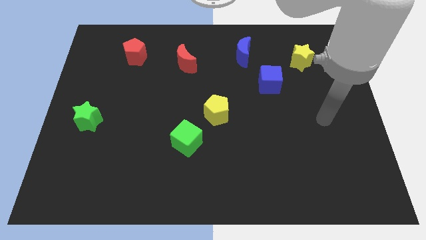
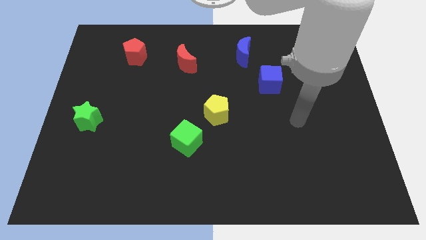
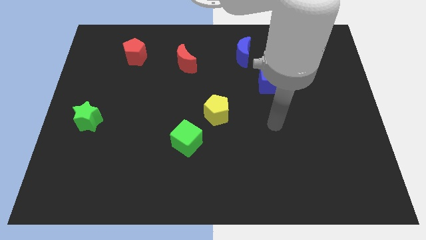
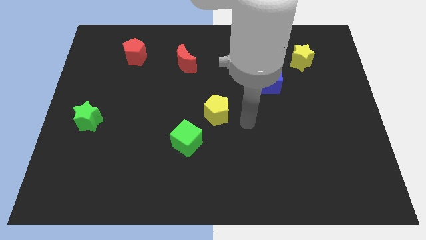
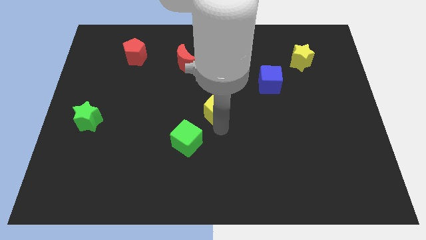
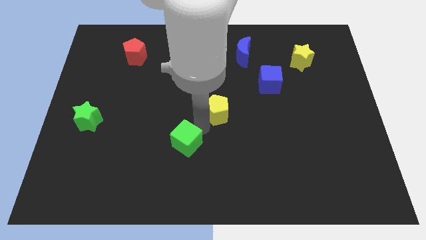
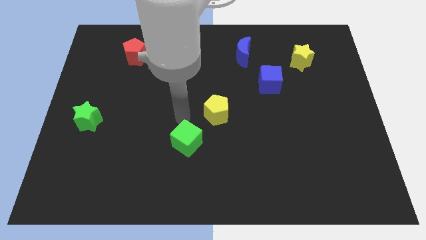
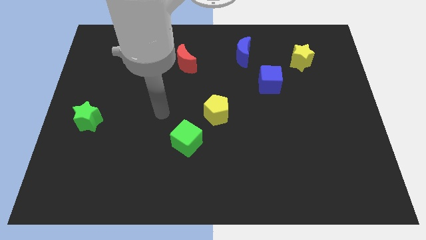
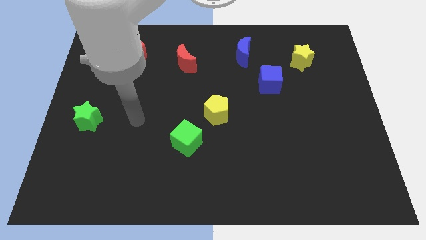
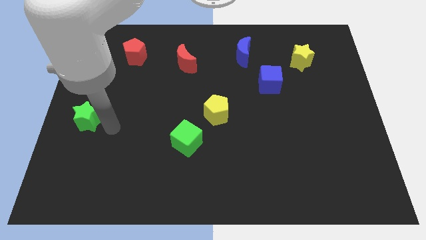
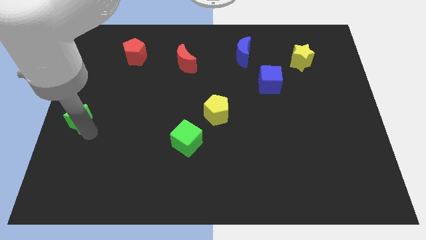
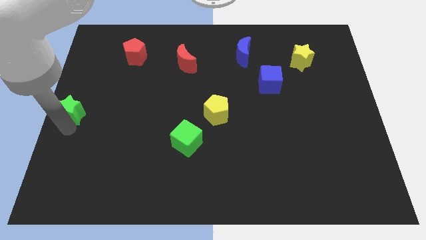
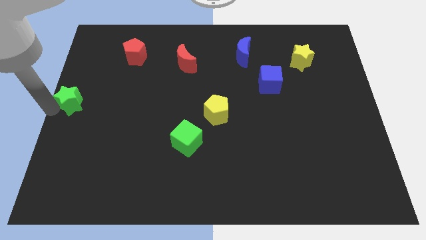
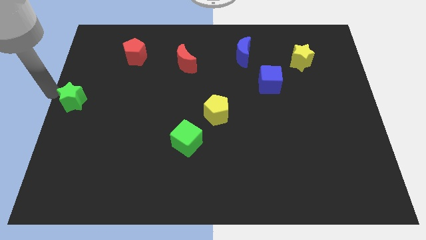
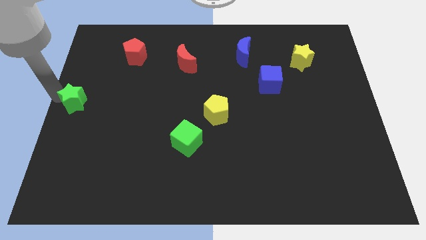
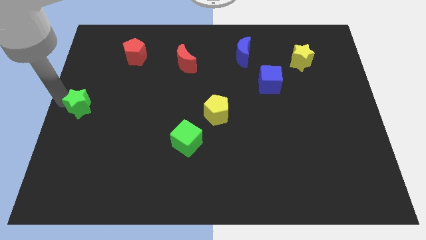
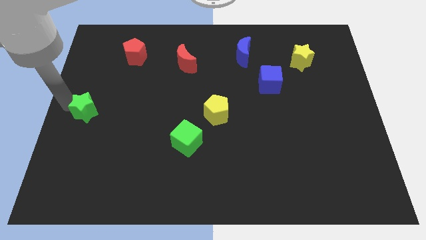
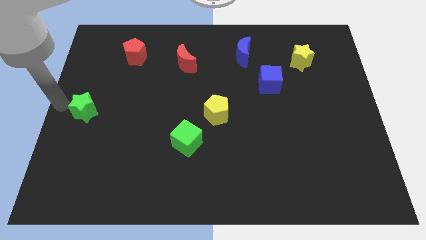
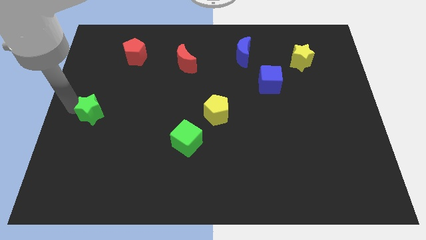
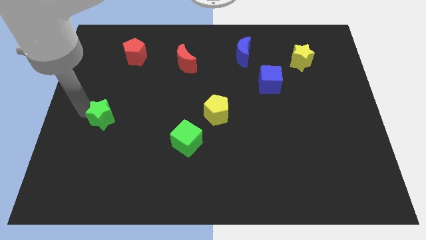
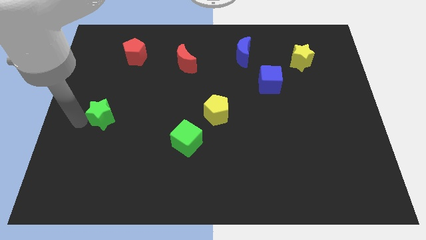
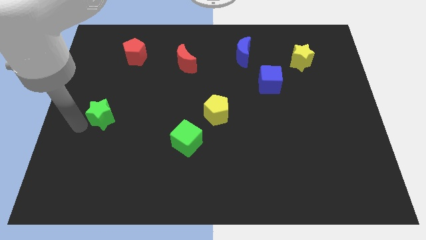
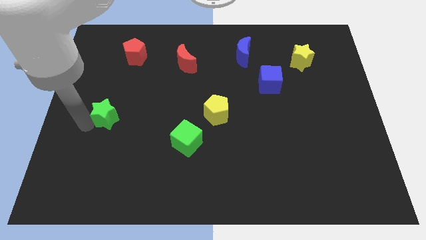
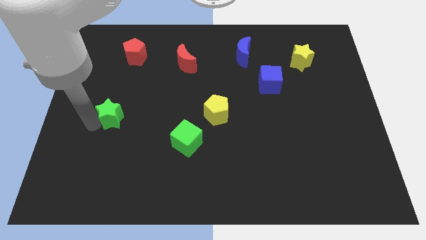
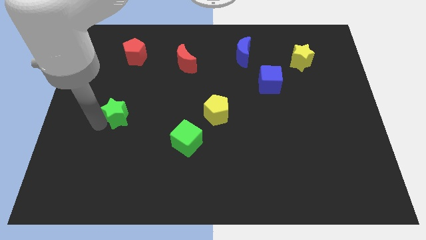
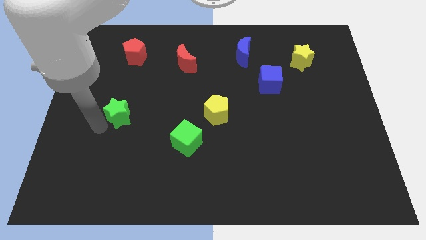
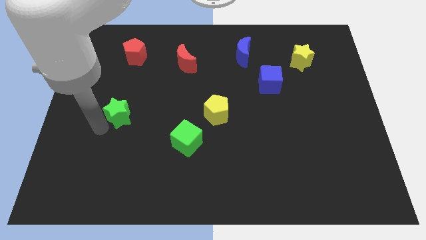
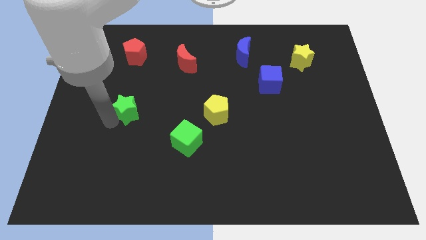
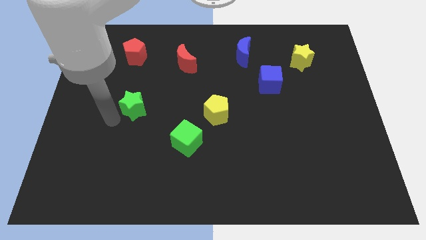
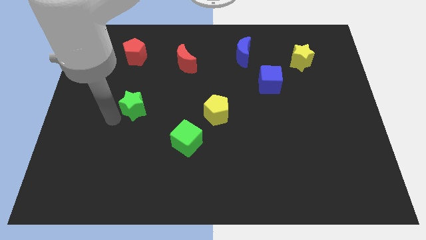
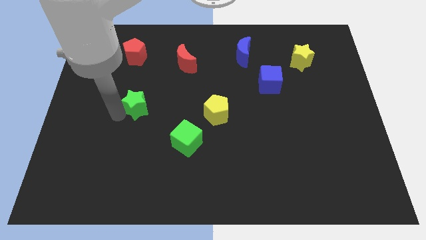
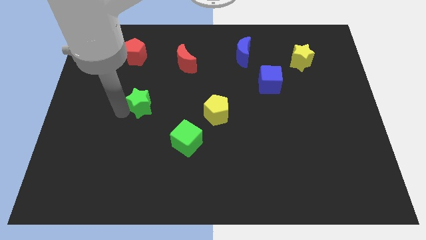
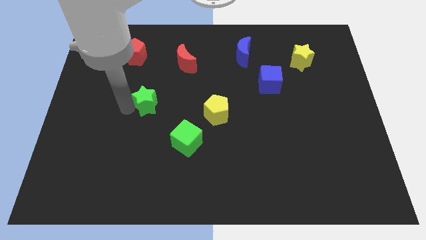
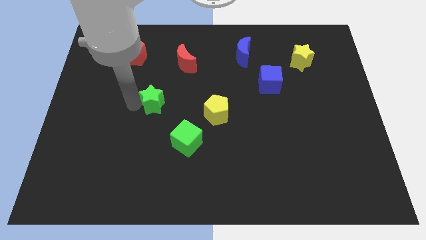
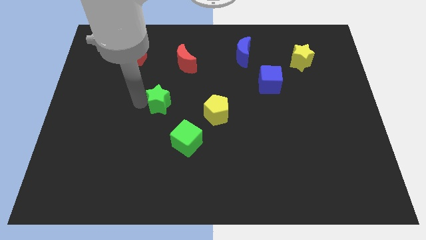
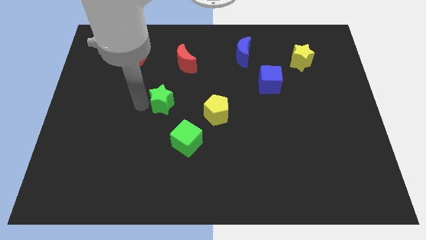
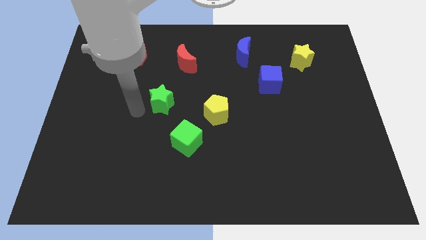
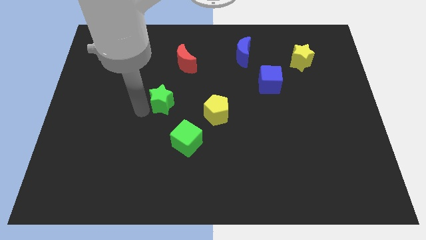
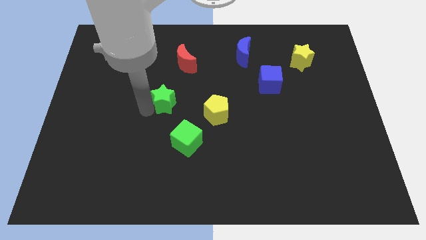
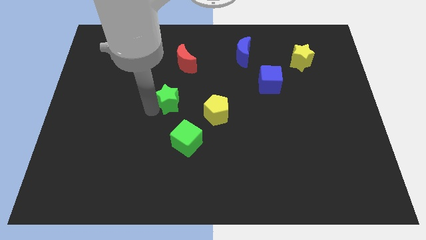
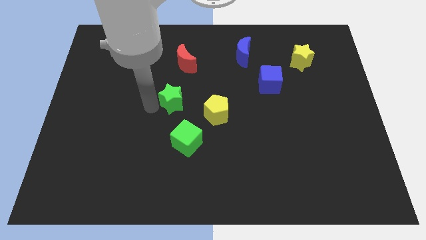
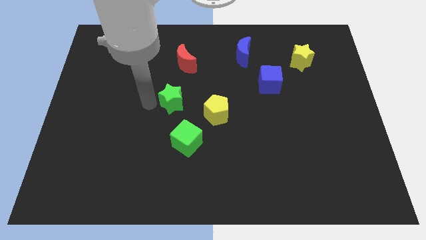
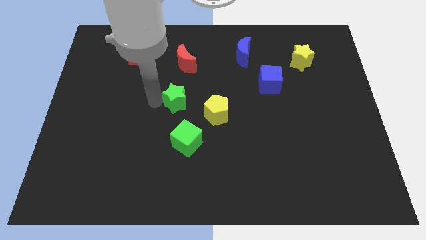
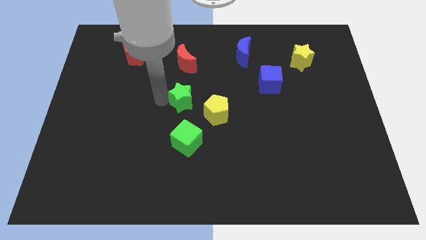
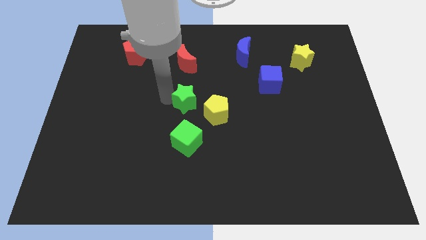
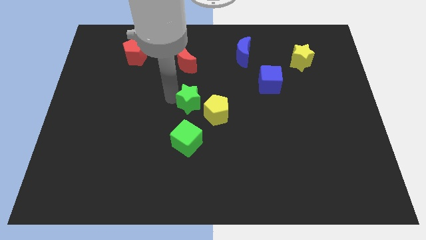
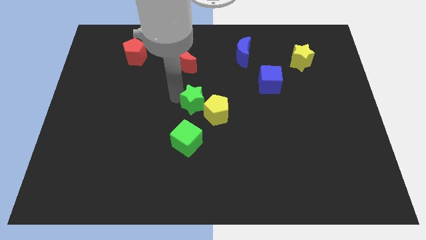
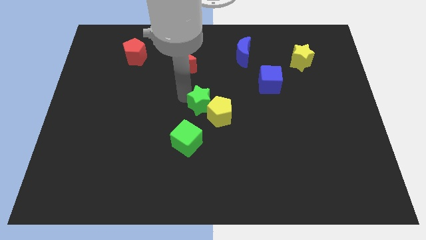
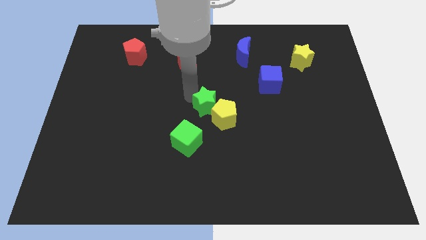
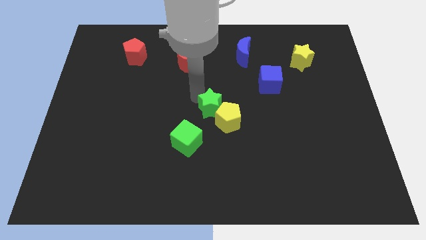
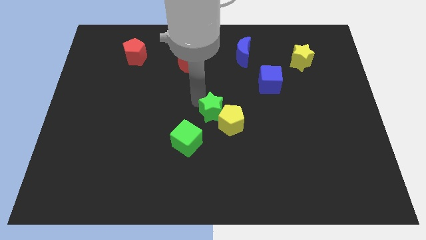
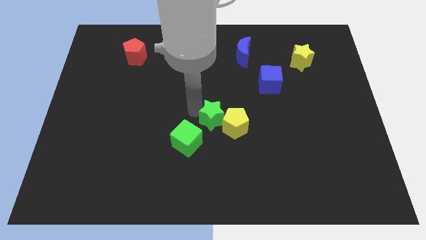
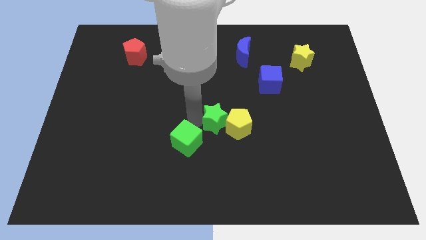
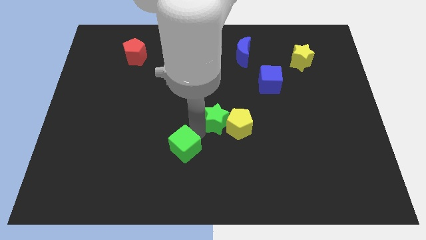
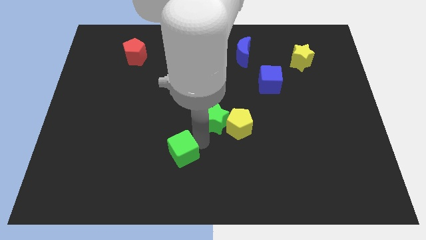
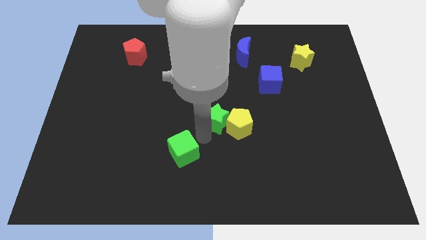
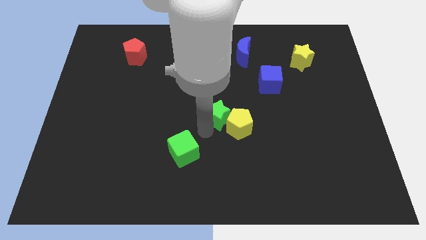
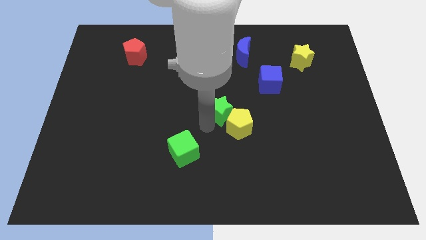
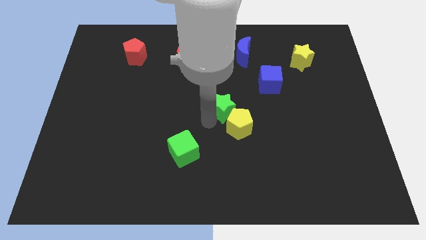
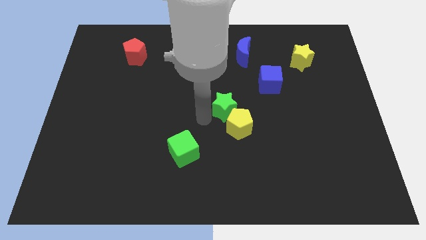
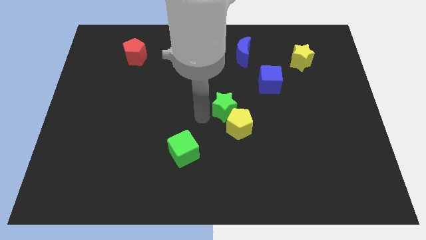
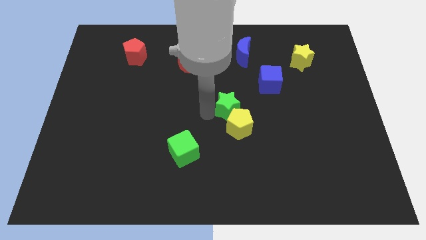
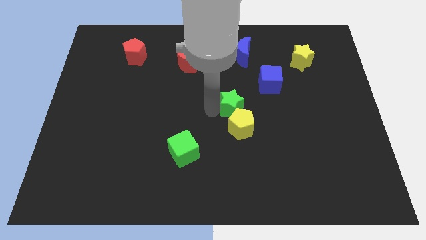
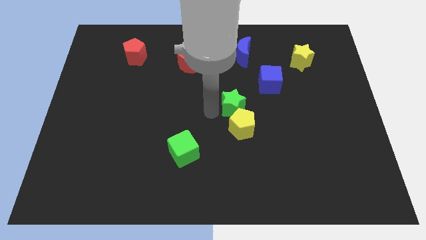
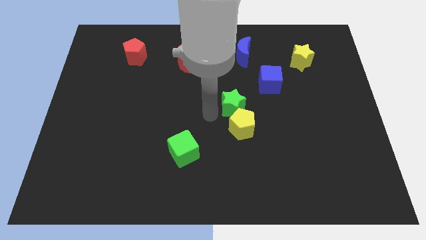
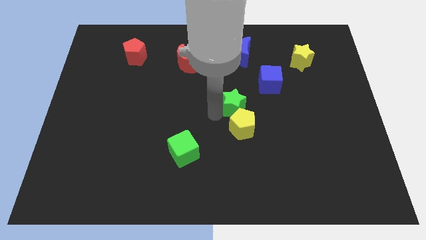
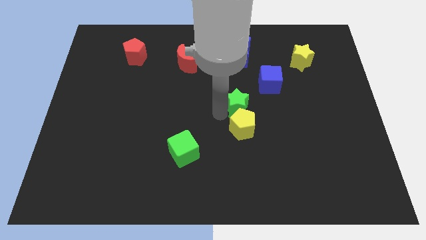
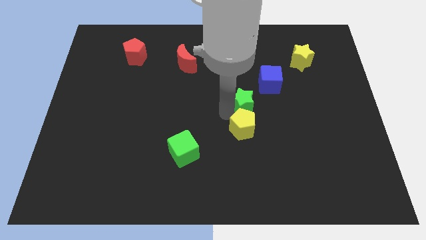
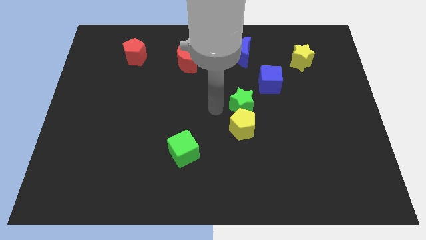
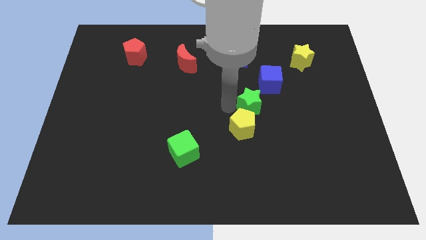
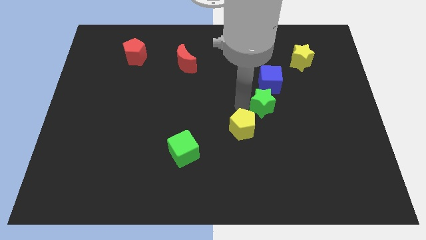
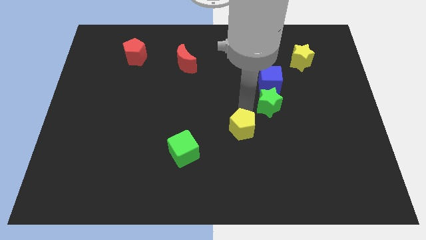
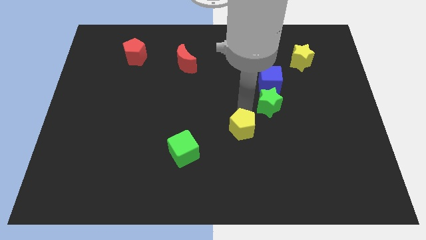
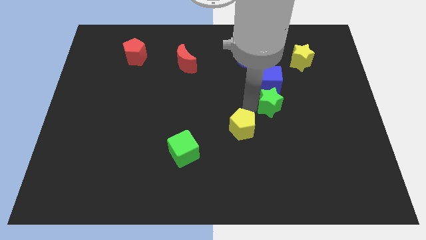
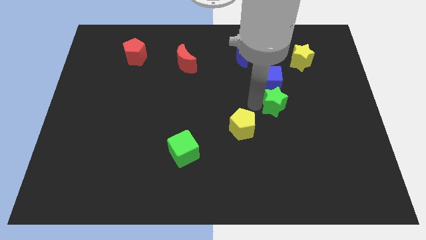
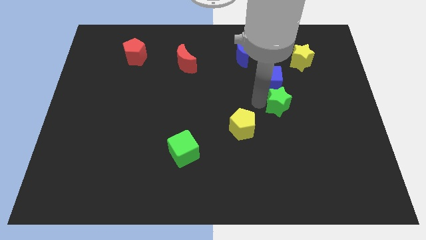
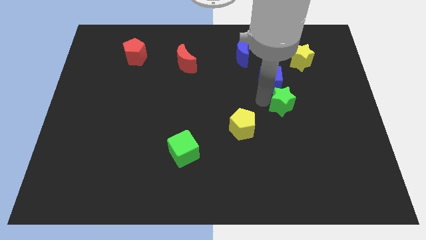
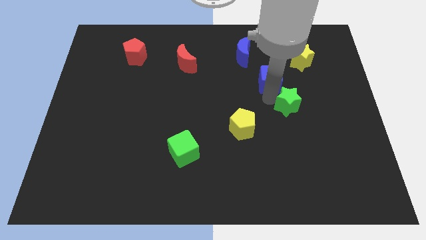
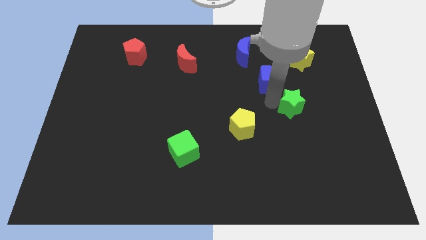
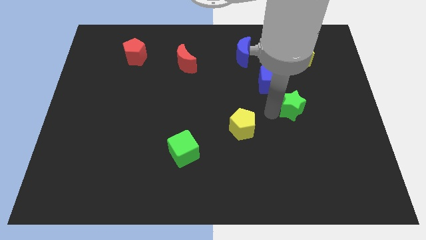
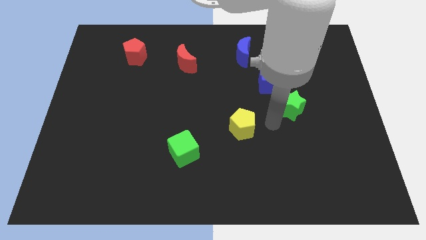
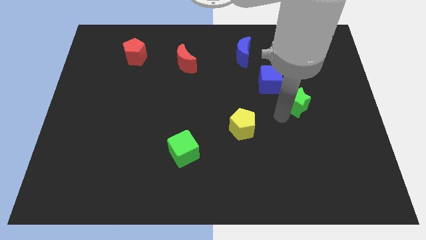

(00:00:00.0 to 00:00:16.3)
move the green star to the bottom side of the yellow star
